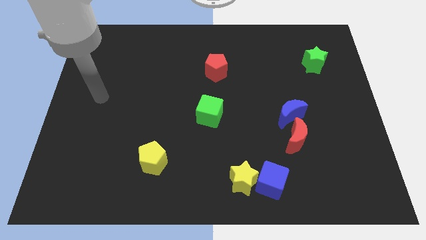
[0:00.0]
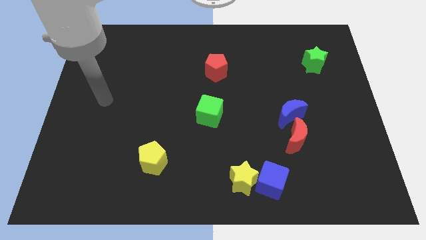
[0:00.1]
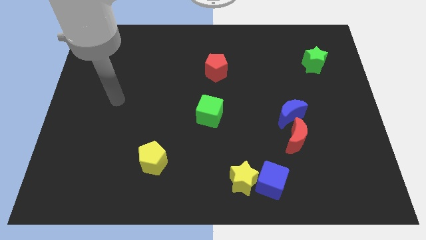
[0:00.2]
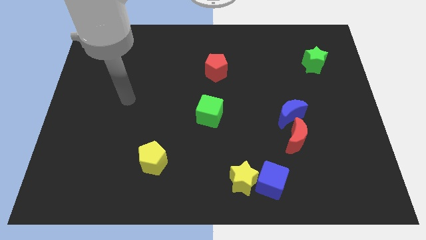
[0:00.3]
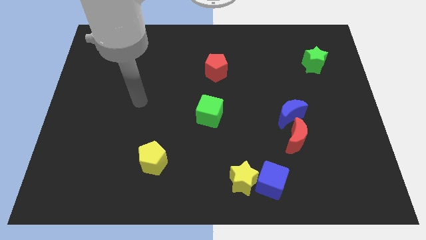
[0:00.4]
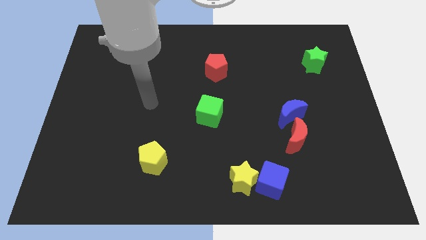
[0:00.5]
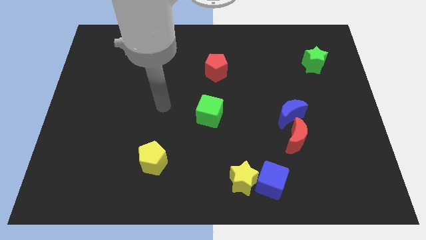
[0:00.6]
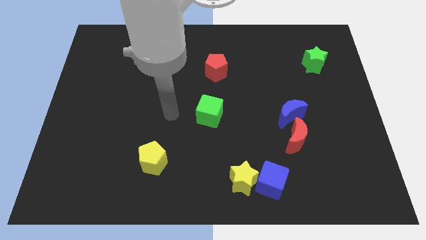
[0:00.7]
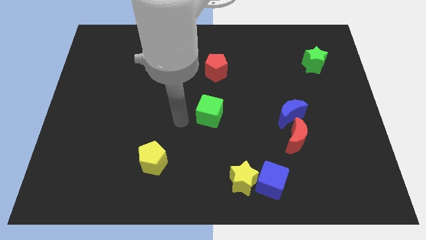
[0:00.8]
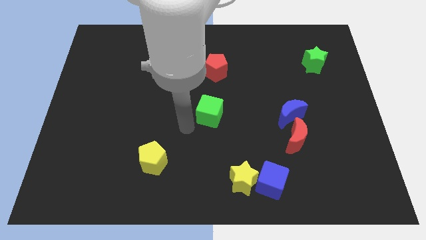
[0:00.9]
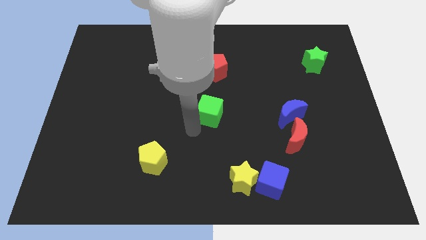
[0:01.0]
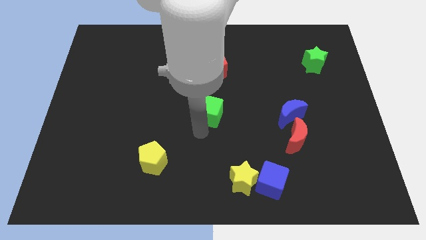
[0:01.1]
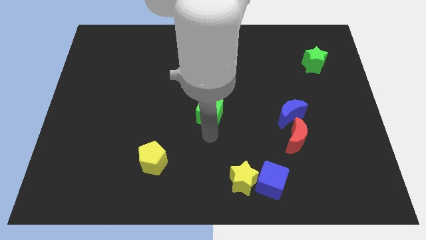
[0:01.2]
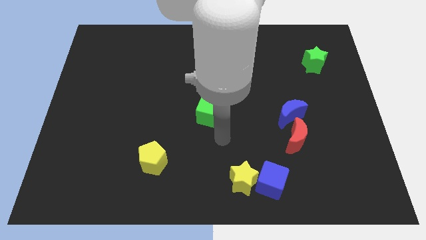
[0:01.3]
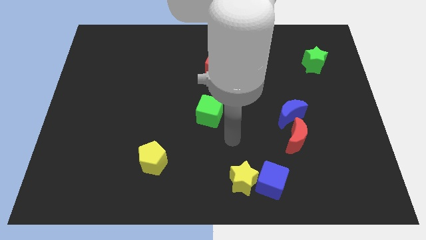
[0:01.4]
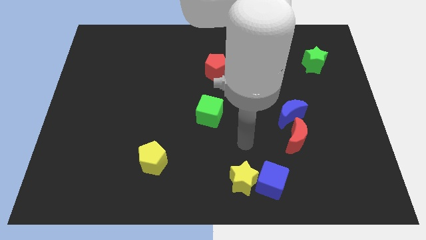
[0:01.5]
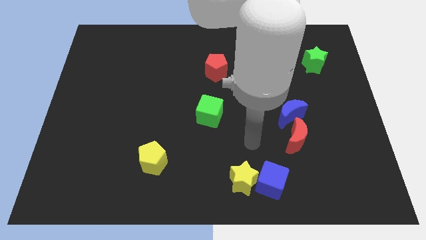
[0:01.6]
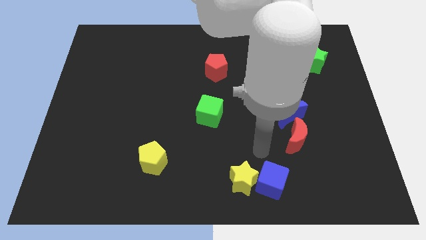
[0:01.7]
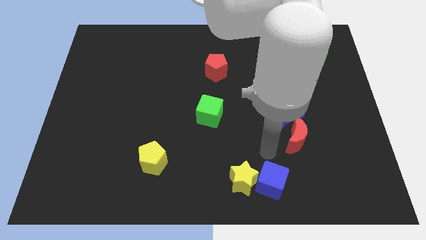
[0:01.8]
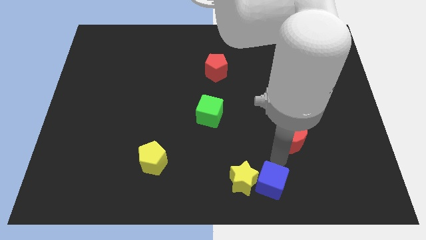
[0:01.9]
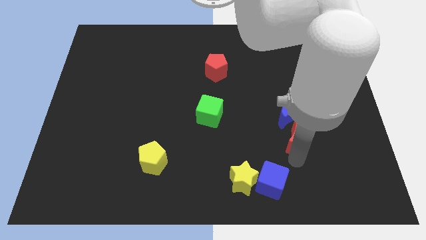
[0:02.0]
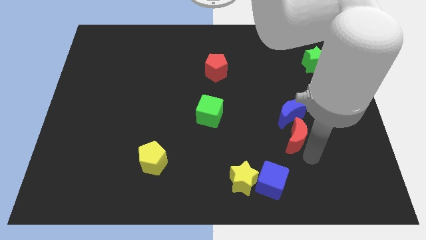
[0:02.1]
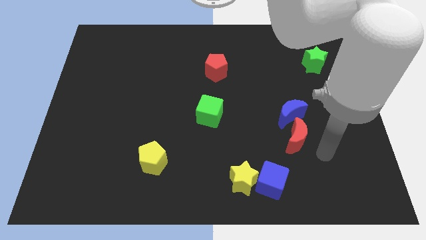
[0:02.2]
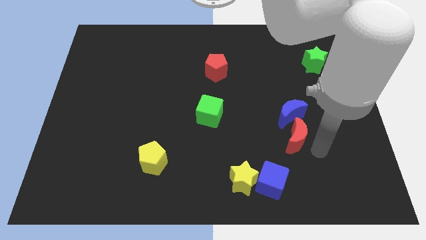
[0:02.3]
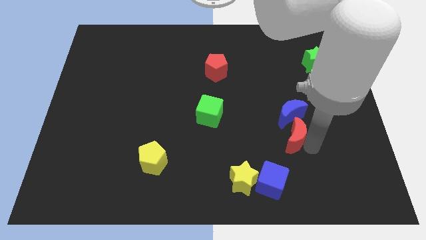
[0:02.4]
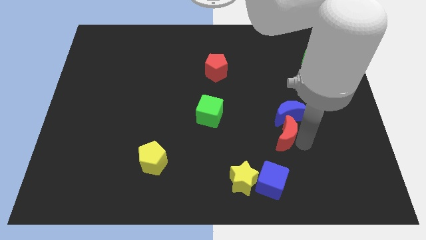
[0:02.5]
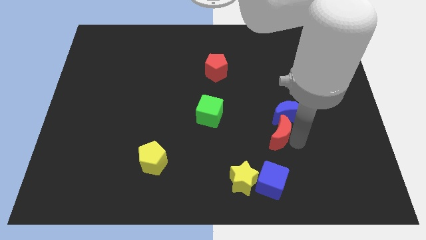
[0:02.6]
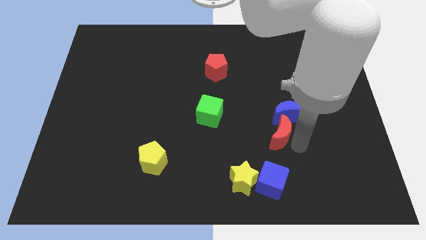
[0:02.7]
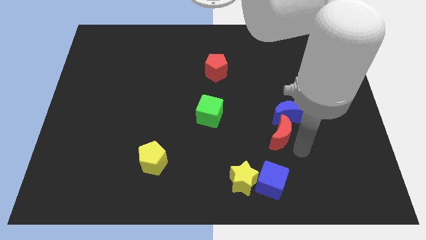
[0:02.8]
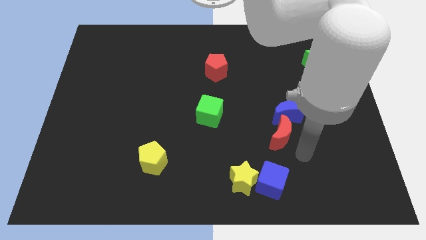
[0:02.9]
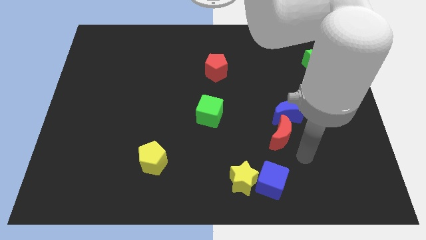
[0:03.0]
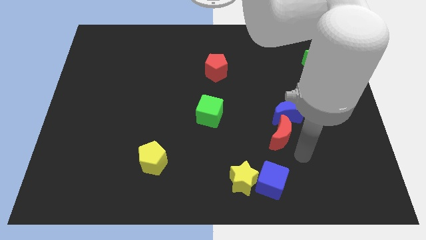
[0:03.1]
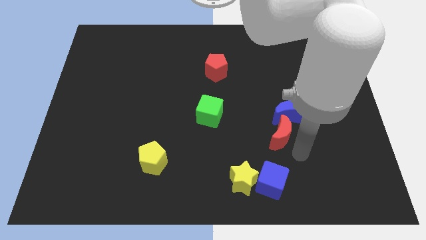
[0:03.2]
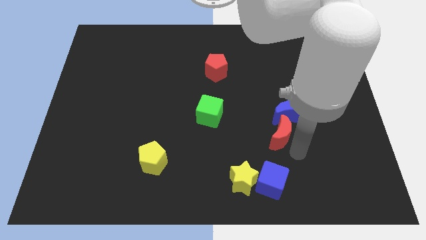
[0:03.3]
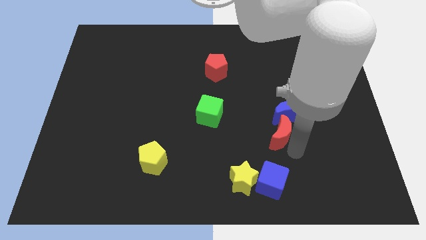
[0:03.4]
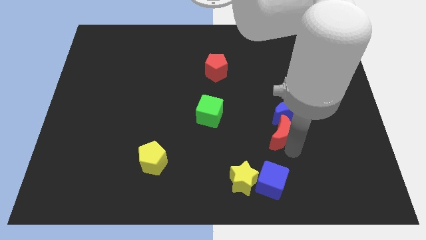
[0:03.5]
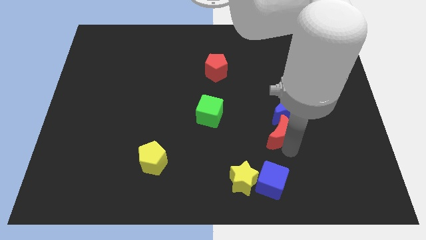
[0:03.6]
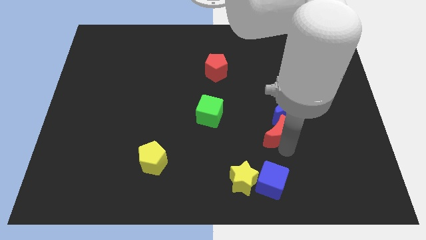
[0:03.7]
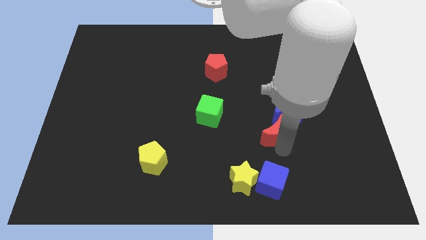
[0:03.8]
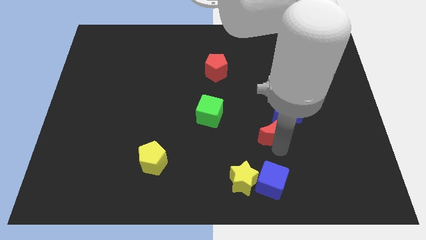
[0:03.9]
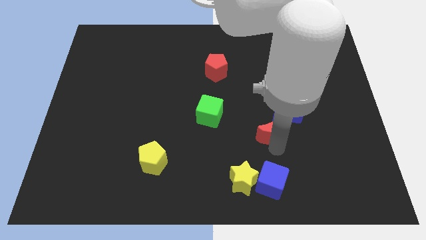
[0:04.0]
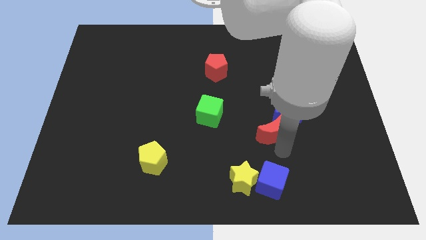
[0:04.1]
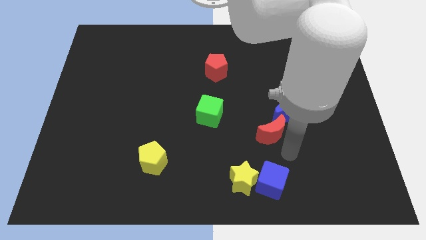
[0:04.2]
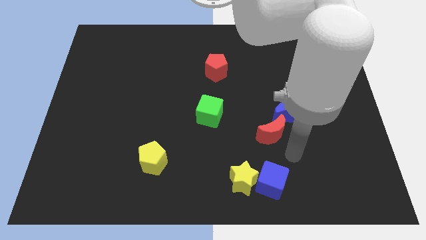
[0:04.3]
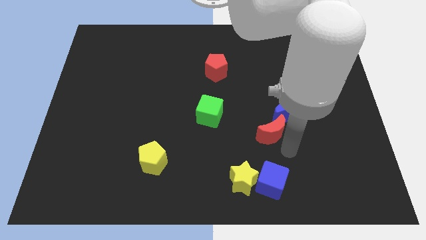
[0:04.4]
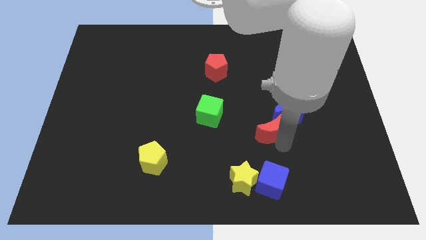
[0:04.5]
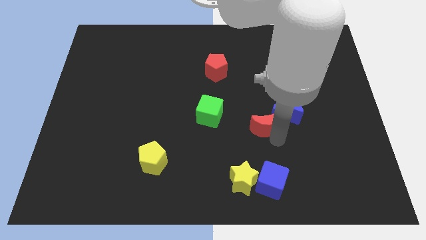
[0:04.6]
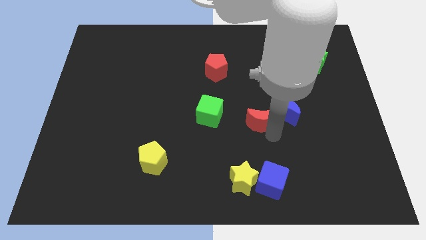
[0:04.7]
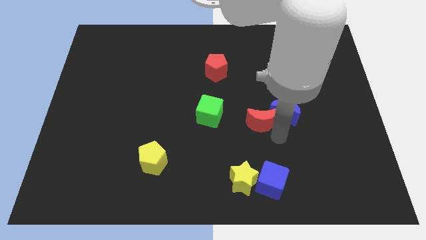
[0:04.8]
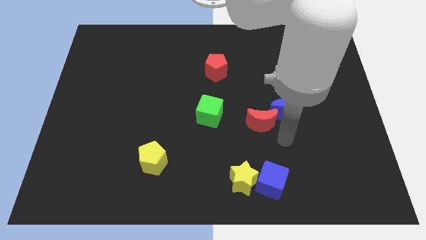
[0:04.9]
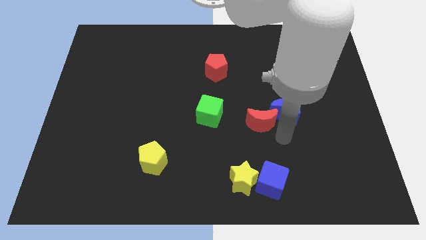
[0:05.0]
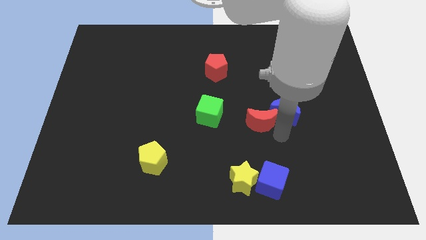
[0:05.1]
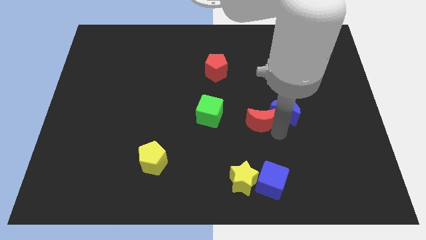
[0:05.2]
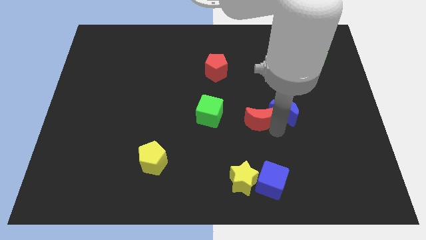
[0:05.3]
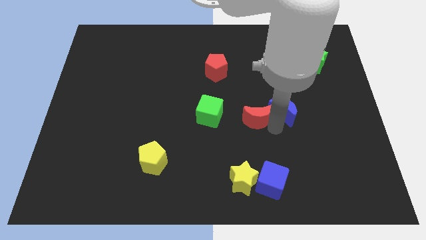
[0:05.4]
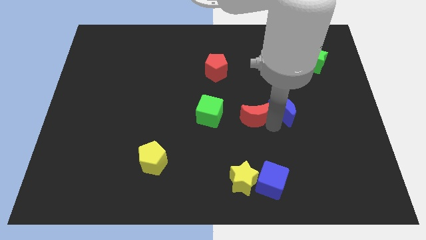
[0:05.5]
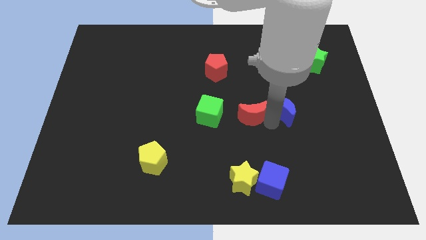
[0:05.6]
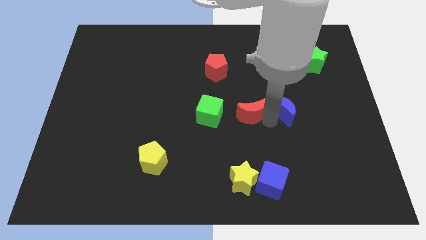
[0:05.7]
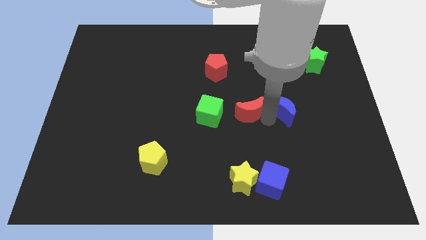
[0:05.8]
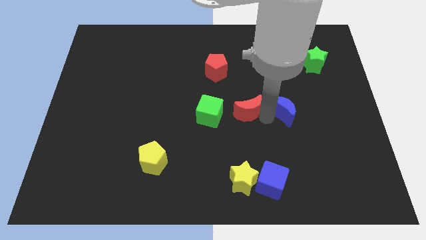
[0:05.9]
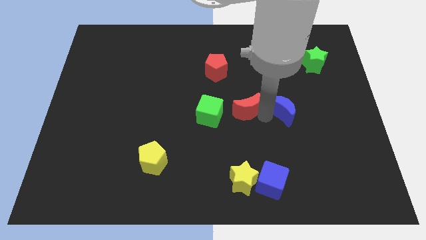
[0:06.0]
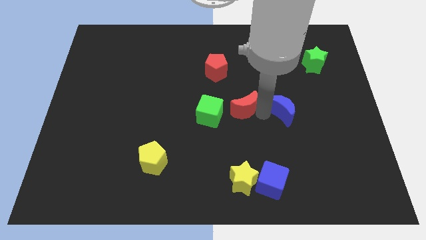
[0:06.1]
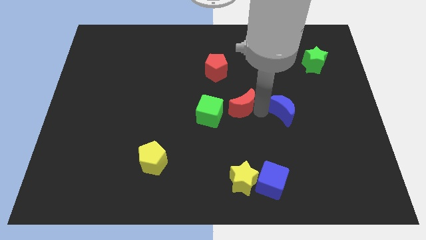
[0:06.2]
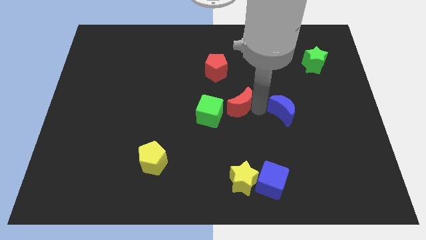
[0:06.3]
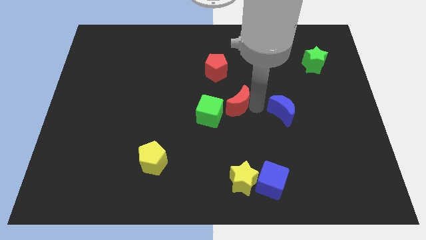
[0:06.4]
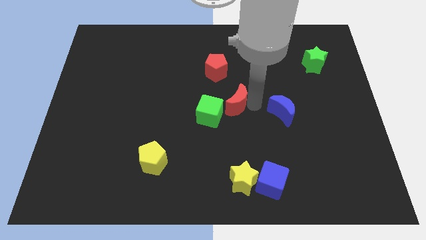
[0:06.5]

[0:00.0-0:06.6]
slide the red moon below the red pentagon
